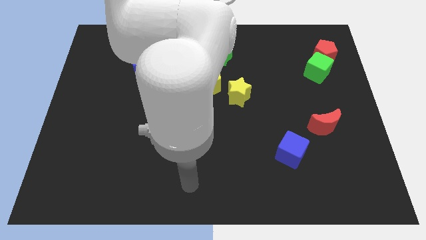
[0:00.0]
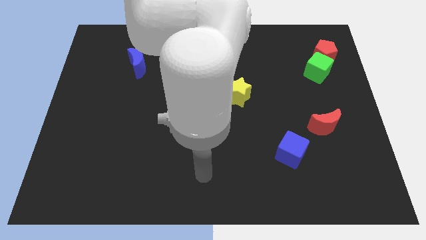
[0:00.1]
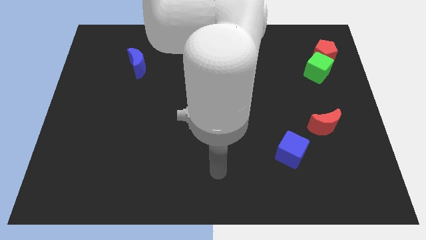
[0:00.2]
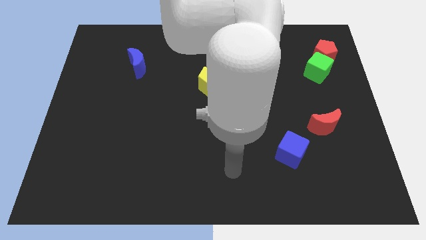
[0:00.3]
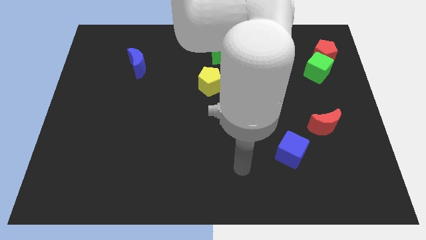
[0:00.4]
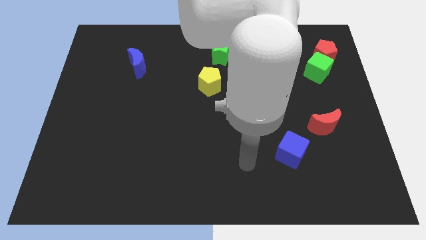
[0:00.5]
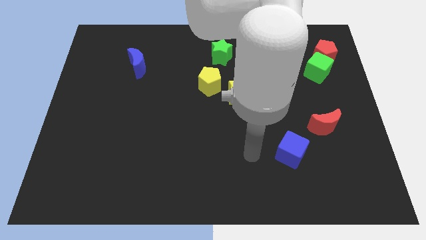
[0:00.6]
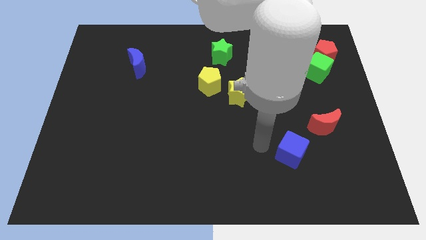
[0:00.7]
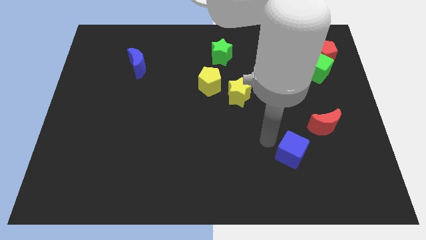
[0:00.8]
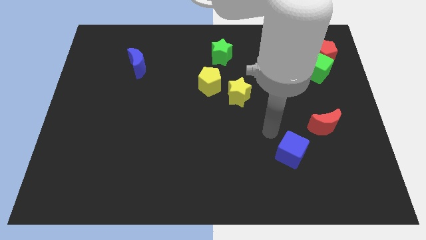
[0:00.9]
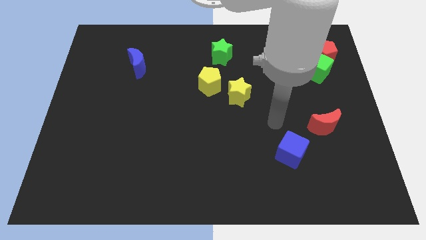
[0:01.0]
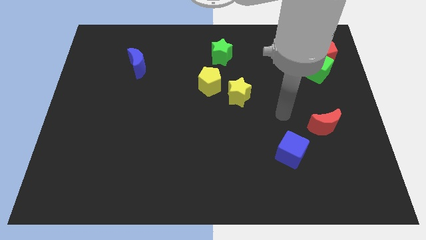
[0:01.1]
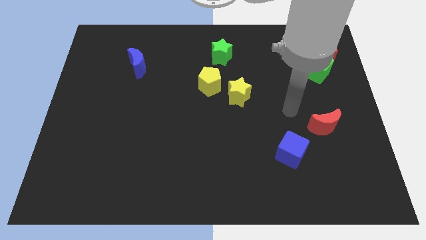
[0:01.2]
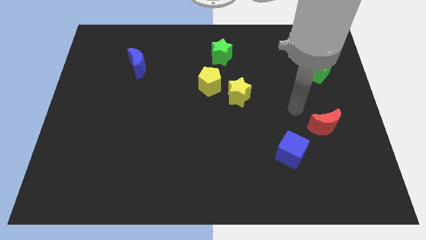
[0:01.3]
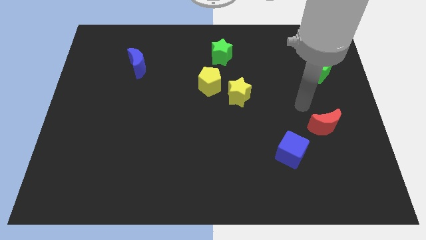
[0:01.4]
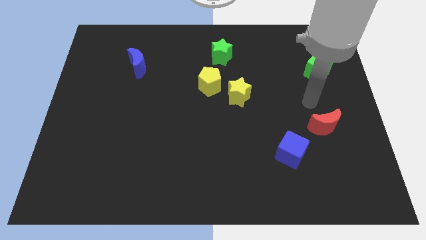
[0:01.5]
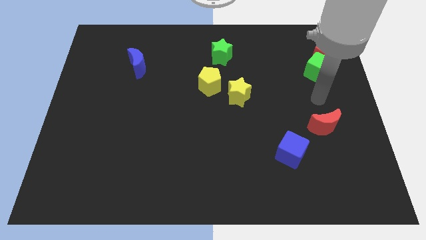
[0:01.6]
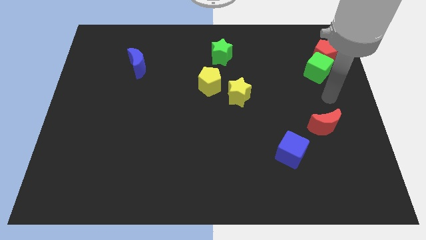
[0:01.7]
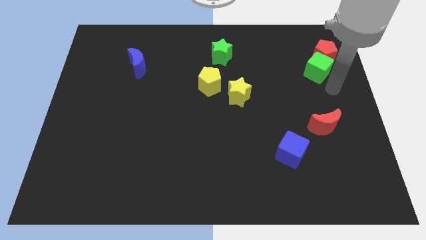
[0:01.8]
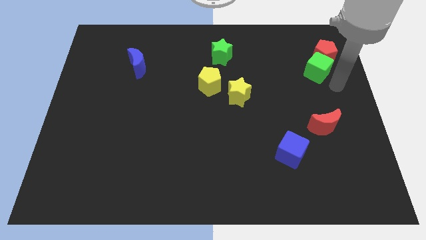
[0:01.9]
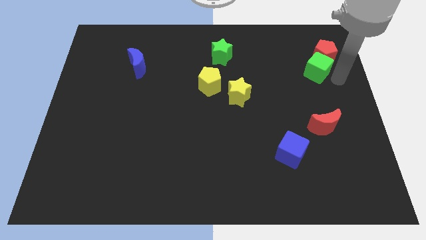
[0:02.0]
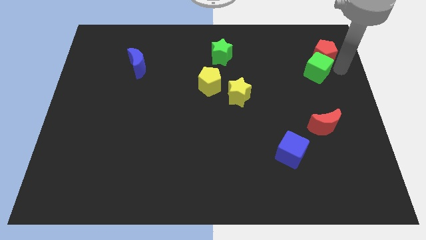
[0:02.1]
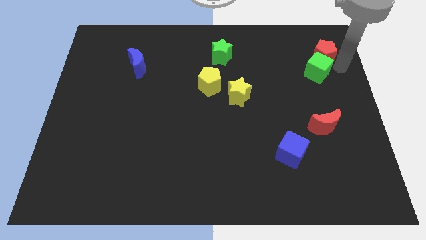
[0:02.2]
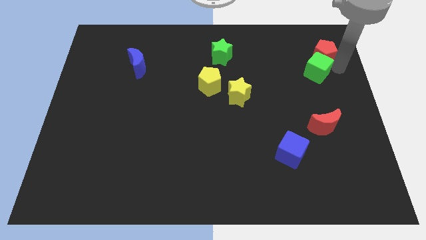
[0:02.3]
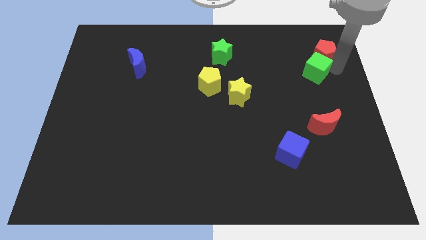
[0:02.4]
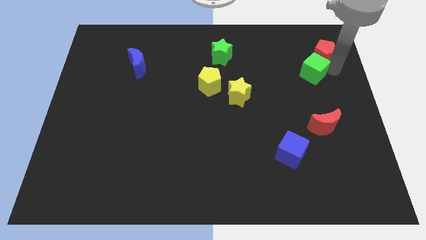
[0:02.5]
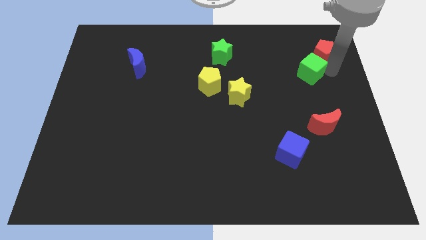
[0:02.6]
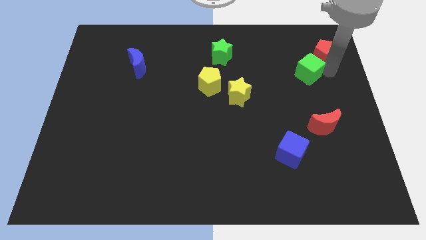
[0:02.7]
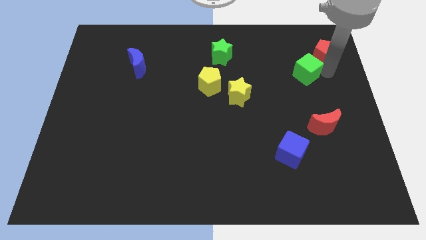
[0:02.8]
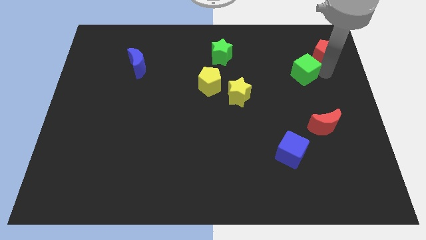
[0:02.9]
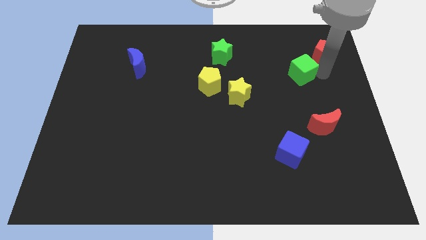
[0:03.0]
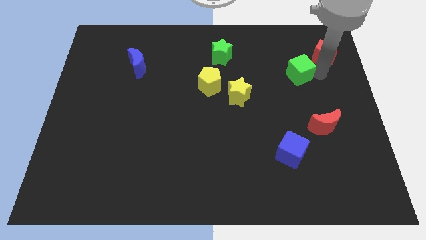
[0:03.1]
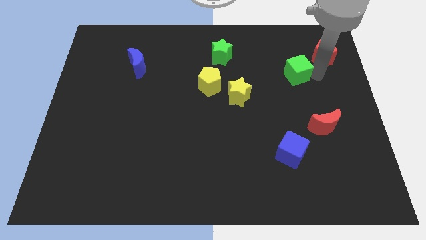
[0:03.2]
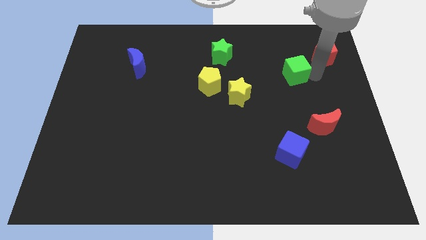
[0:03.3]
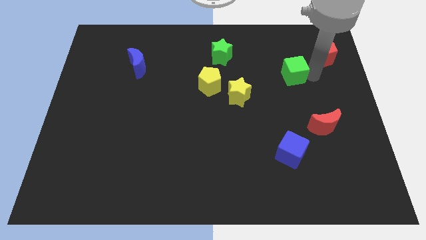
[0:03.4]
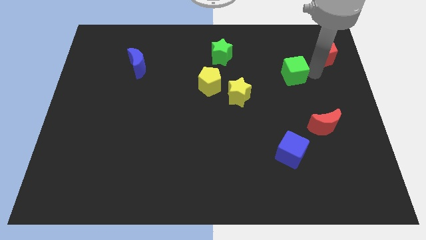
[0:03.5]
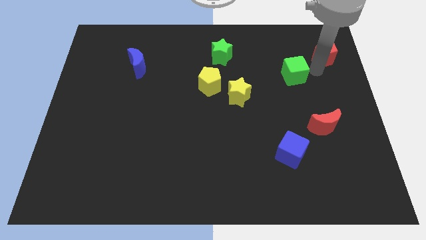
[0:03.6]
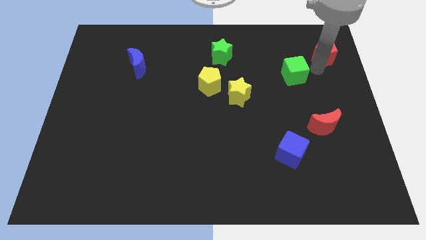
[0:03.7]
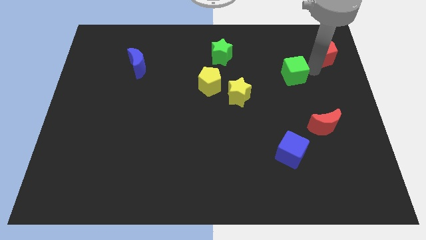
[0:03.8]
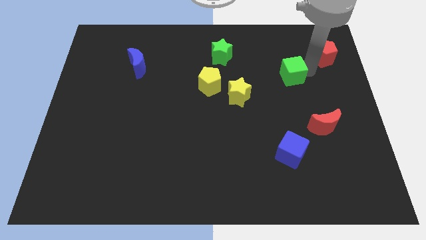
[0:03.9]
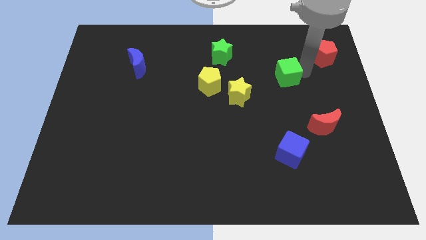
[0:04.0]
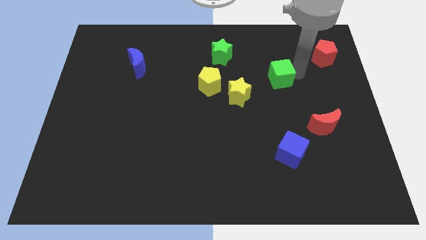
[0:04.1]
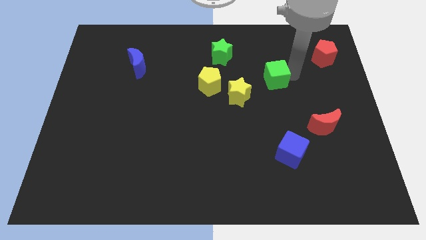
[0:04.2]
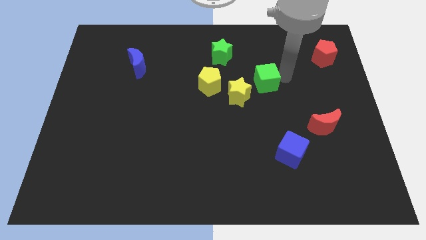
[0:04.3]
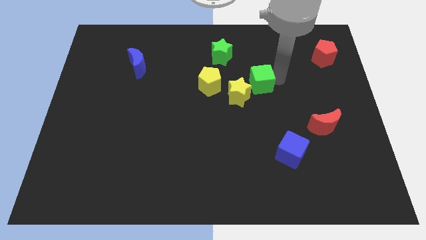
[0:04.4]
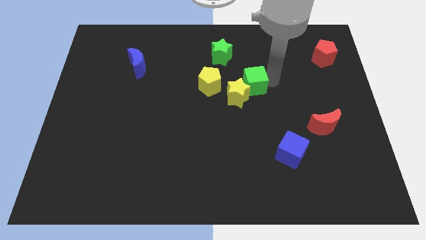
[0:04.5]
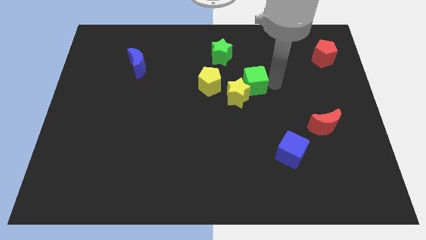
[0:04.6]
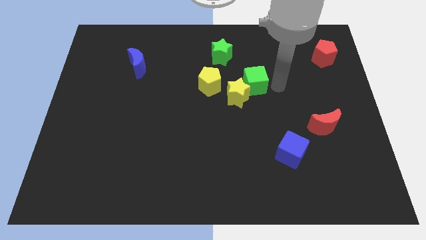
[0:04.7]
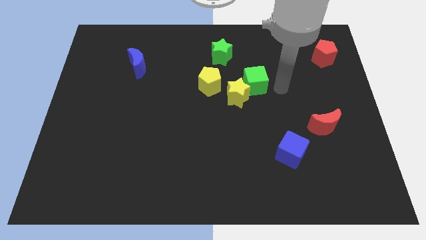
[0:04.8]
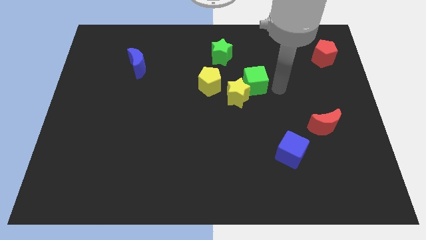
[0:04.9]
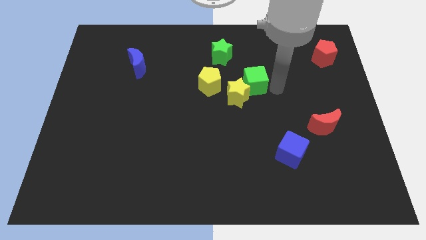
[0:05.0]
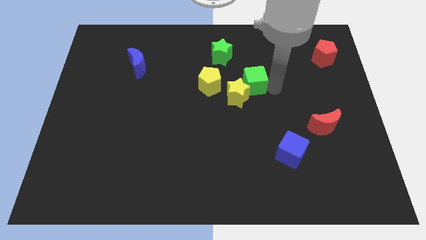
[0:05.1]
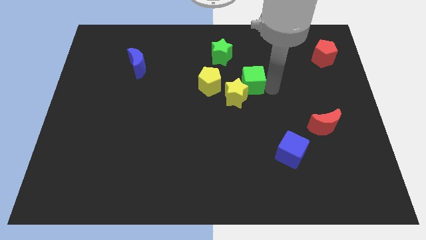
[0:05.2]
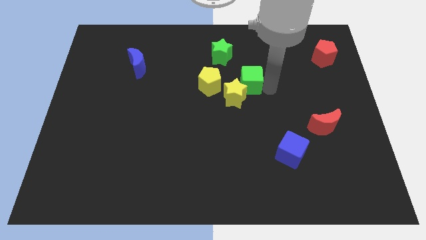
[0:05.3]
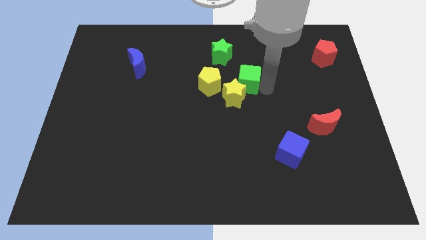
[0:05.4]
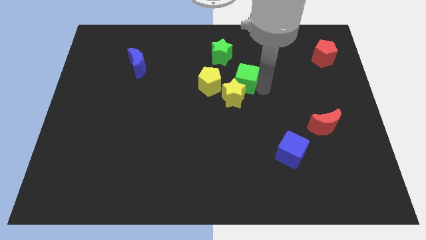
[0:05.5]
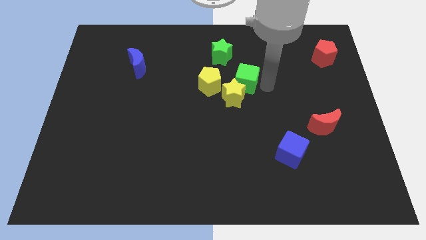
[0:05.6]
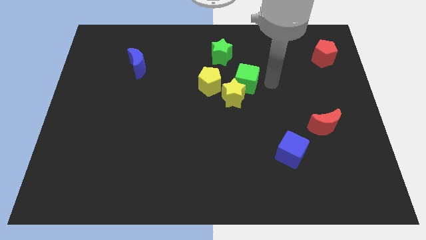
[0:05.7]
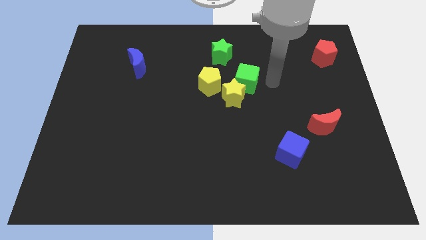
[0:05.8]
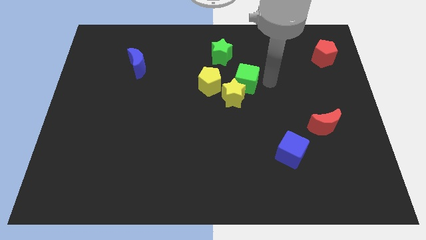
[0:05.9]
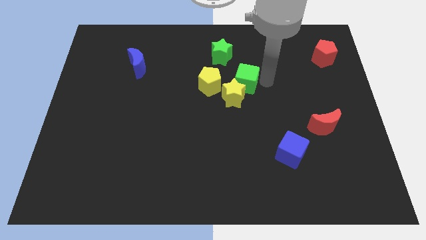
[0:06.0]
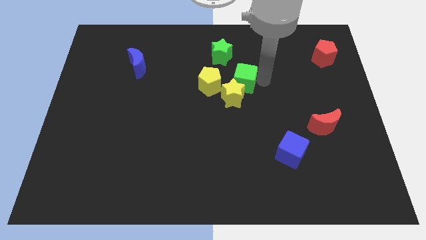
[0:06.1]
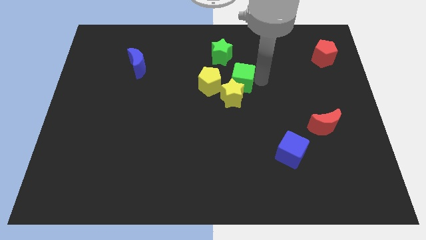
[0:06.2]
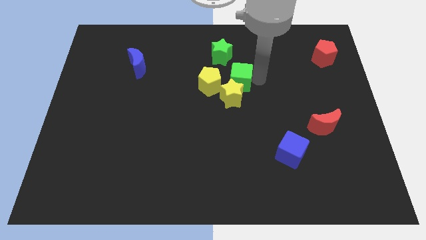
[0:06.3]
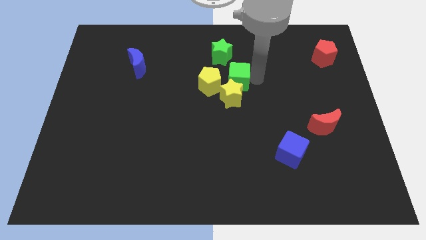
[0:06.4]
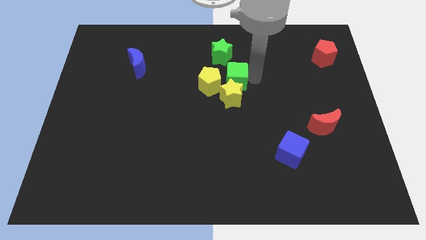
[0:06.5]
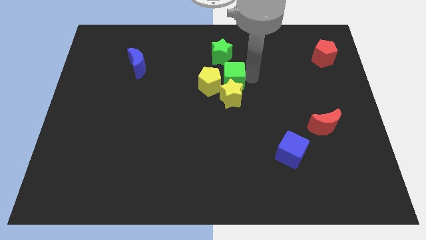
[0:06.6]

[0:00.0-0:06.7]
put the green cube towards the yellow pentagon
